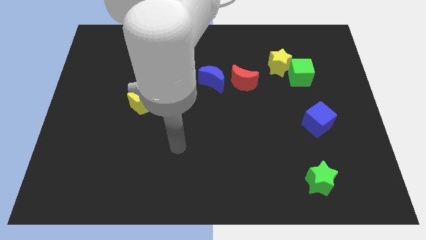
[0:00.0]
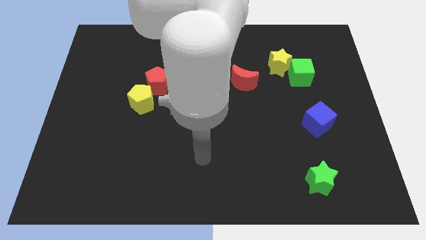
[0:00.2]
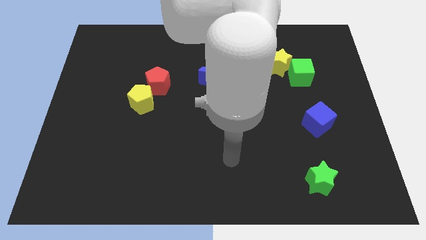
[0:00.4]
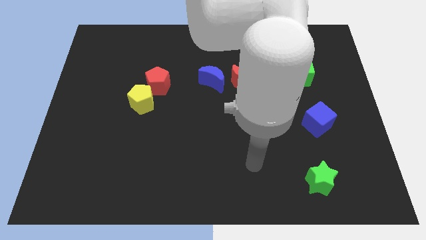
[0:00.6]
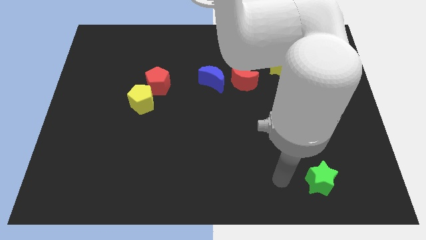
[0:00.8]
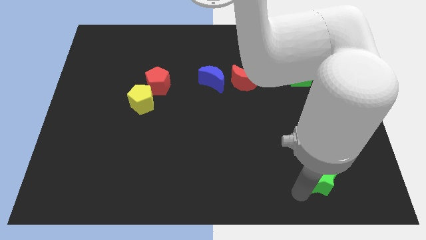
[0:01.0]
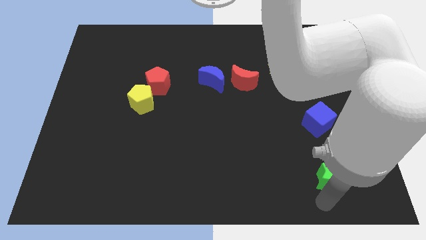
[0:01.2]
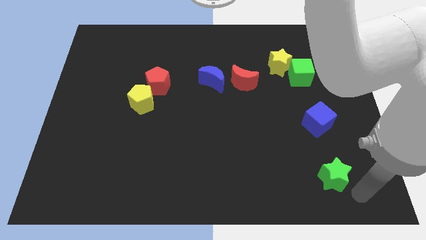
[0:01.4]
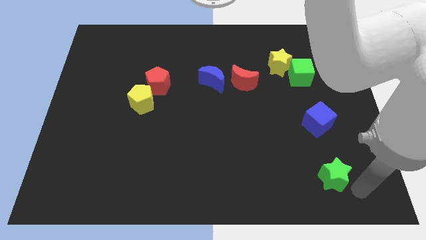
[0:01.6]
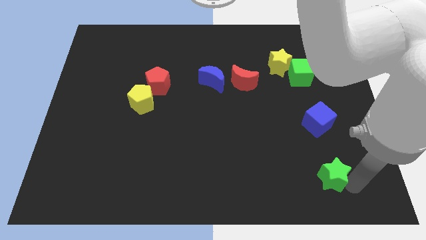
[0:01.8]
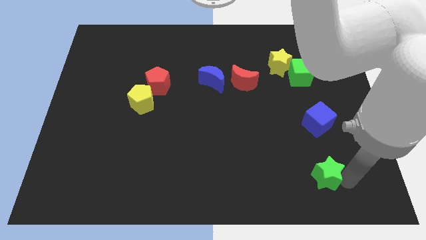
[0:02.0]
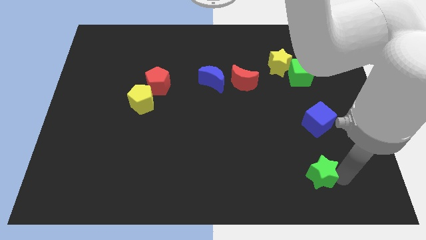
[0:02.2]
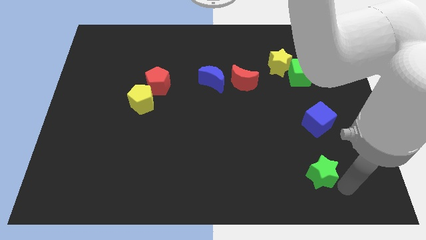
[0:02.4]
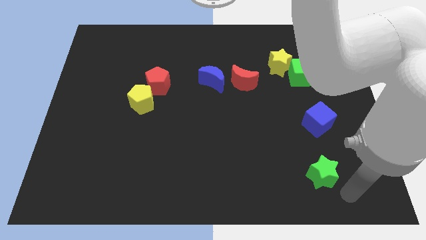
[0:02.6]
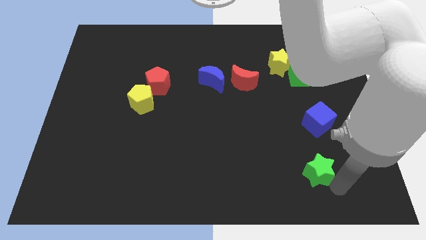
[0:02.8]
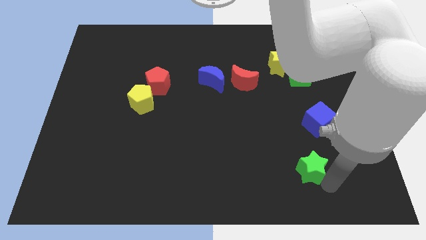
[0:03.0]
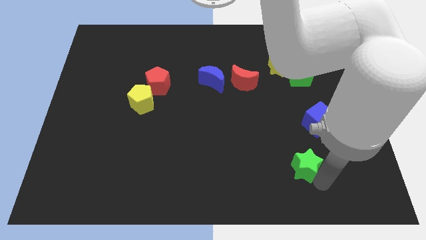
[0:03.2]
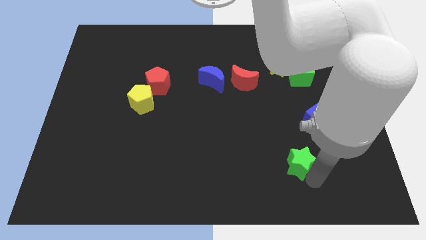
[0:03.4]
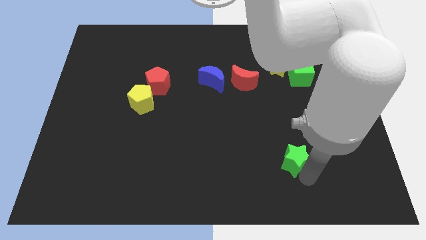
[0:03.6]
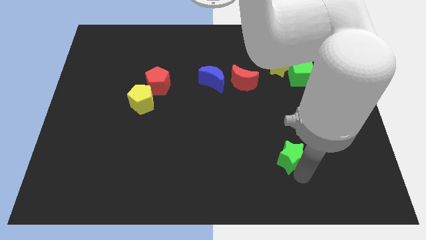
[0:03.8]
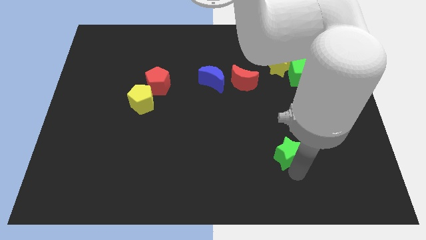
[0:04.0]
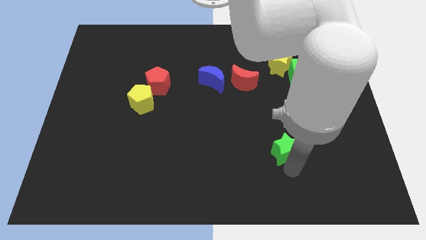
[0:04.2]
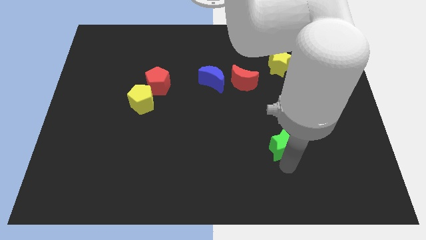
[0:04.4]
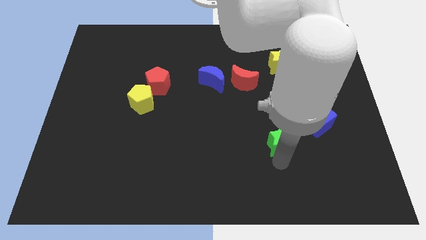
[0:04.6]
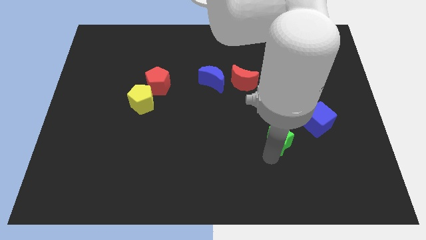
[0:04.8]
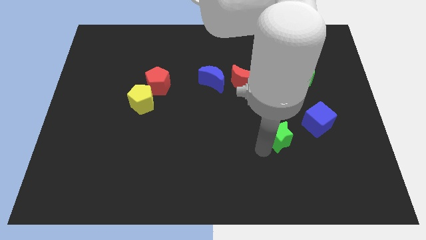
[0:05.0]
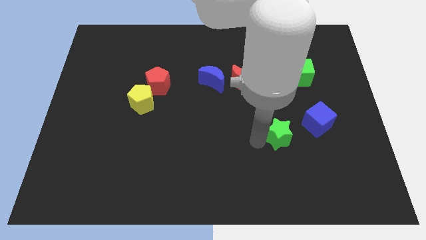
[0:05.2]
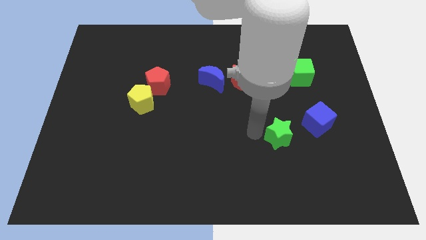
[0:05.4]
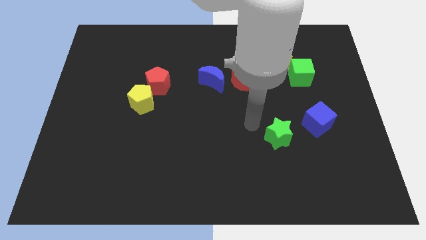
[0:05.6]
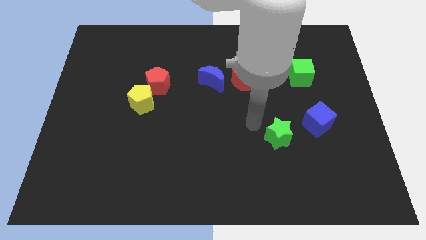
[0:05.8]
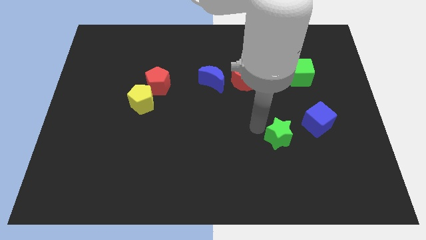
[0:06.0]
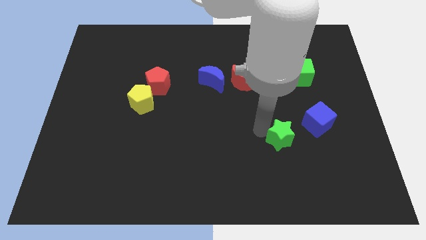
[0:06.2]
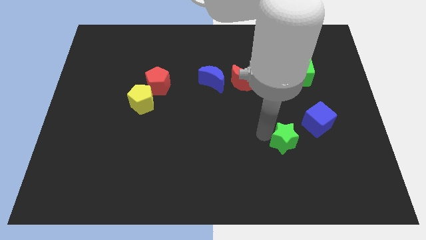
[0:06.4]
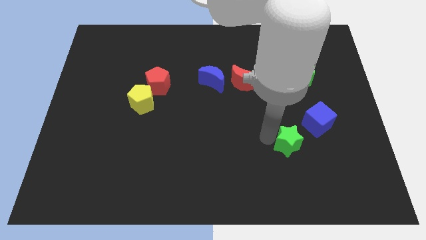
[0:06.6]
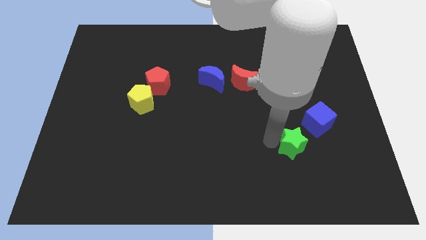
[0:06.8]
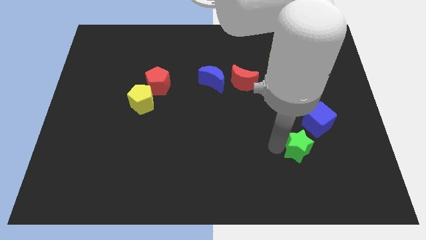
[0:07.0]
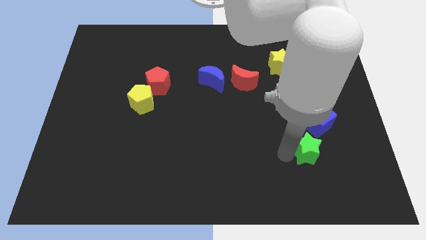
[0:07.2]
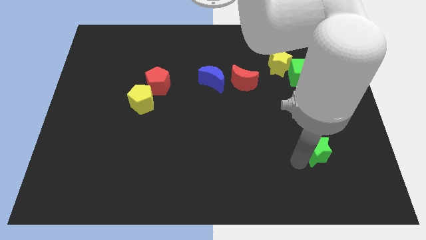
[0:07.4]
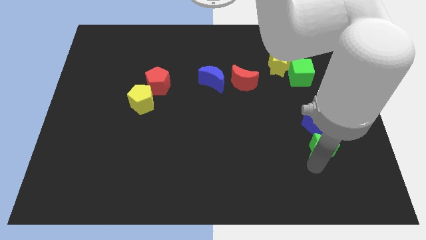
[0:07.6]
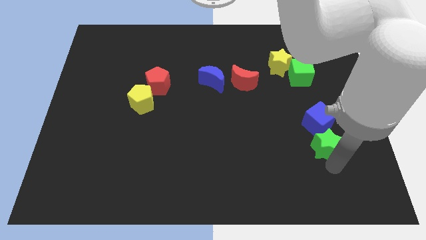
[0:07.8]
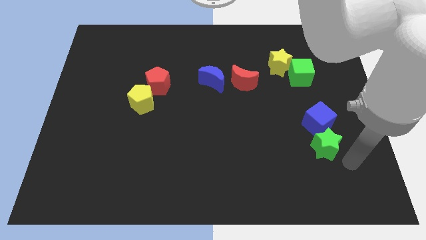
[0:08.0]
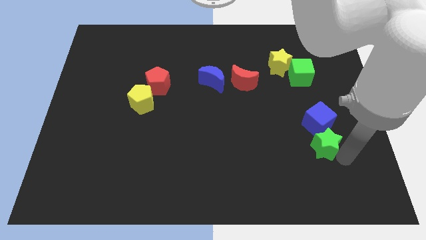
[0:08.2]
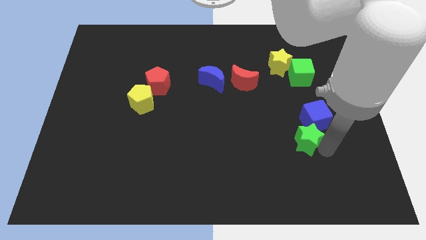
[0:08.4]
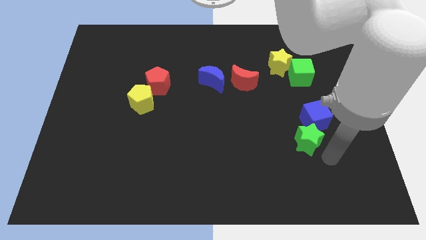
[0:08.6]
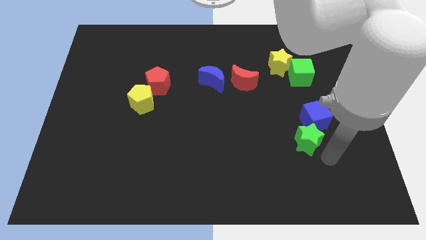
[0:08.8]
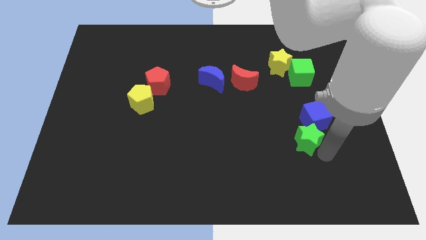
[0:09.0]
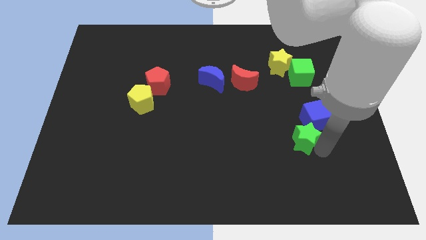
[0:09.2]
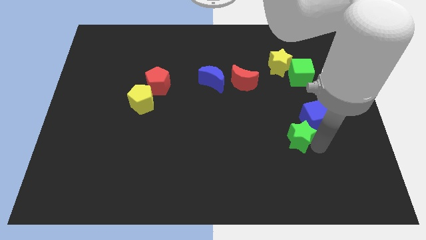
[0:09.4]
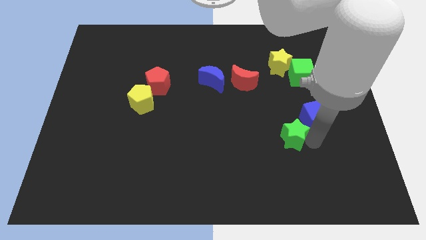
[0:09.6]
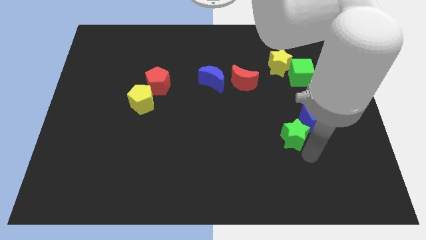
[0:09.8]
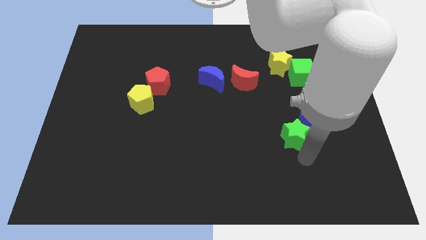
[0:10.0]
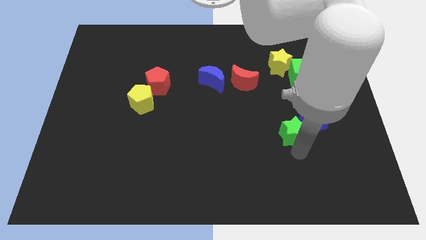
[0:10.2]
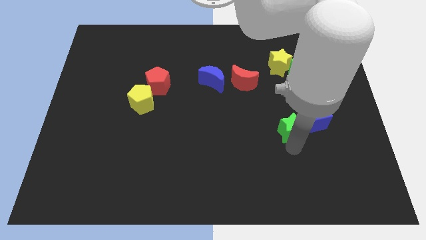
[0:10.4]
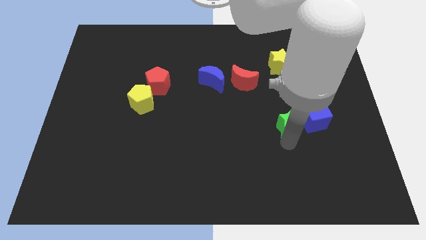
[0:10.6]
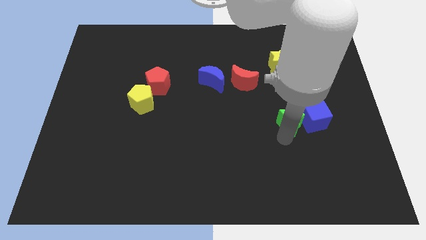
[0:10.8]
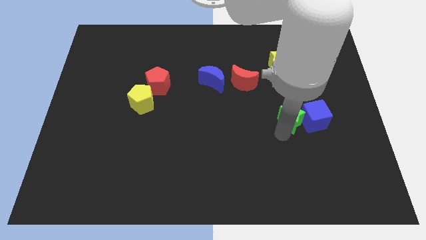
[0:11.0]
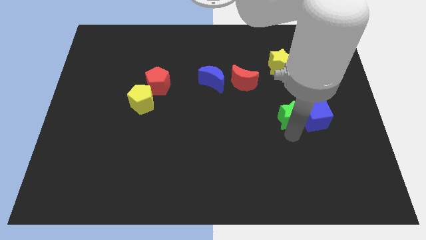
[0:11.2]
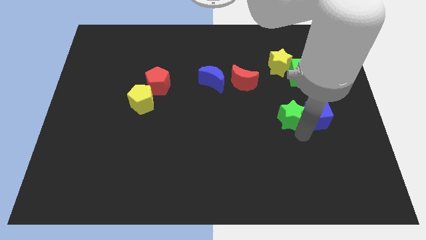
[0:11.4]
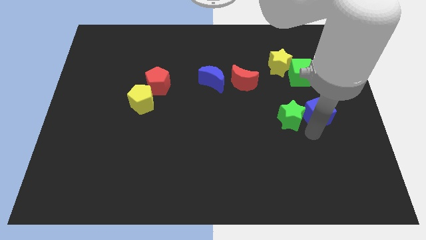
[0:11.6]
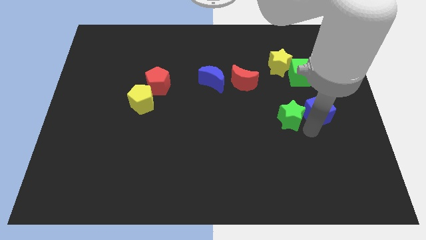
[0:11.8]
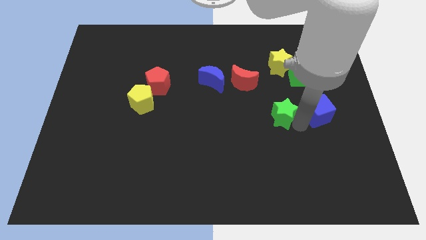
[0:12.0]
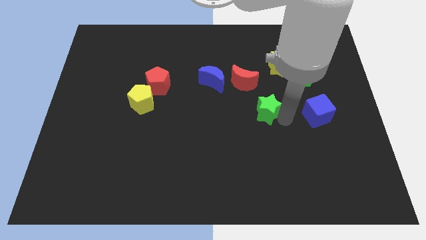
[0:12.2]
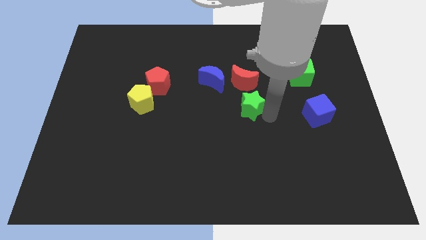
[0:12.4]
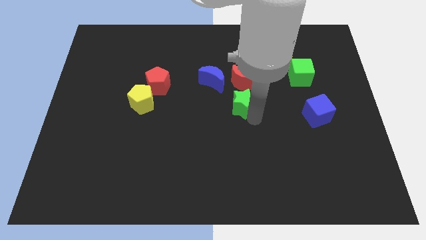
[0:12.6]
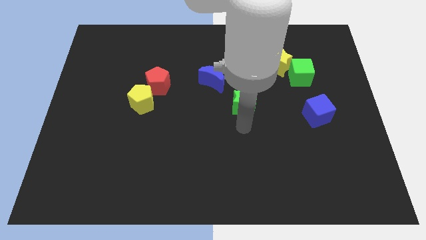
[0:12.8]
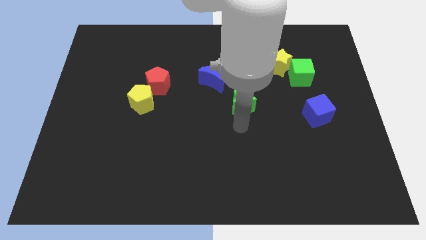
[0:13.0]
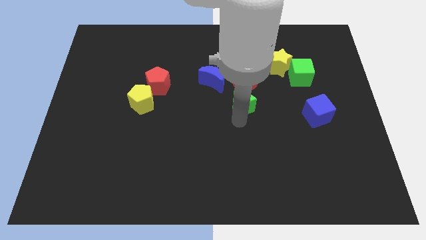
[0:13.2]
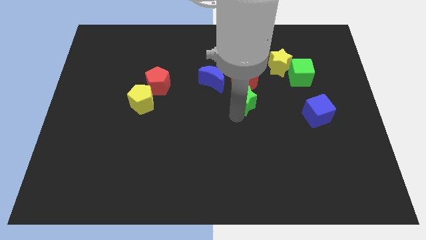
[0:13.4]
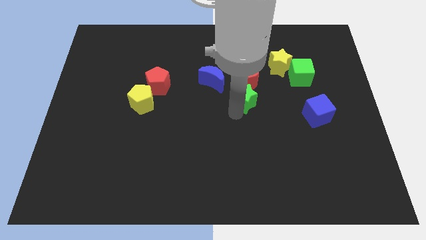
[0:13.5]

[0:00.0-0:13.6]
put the green star next to the red moon

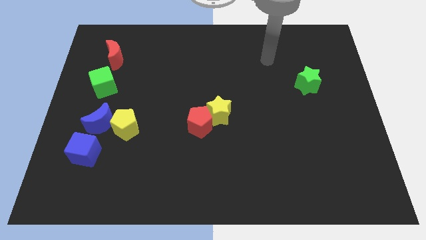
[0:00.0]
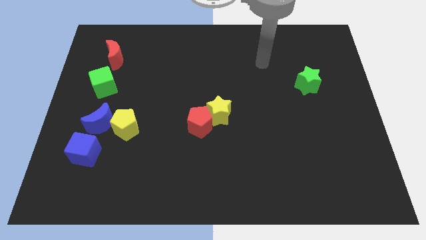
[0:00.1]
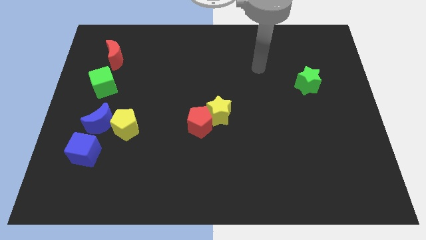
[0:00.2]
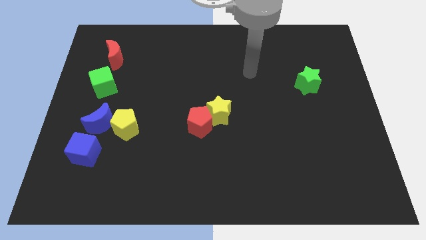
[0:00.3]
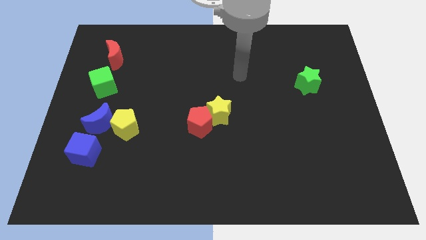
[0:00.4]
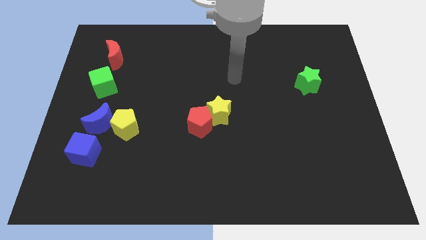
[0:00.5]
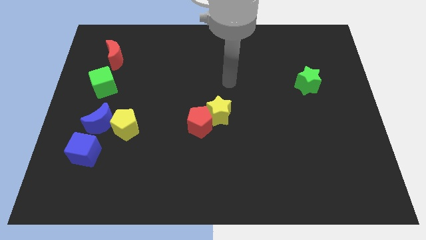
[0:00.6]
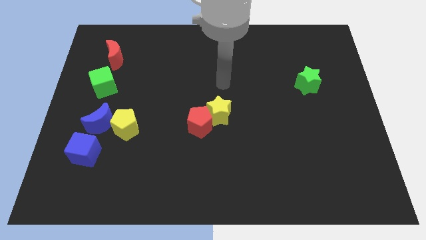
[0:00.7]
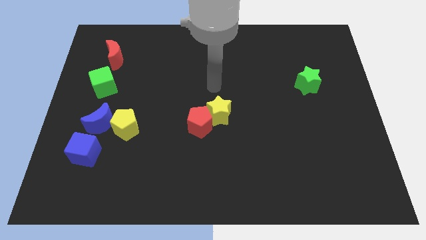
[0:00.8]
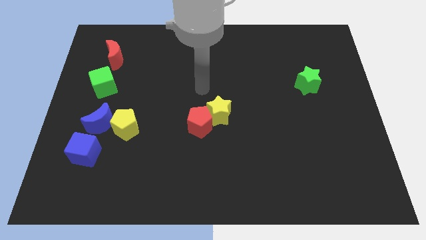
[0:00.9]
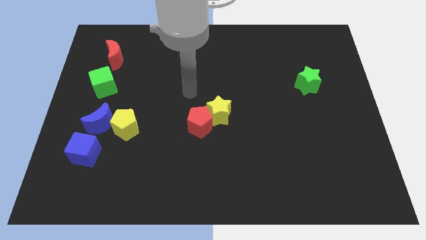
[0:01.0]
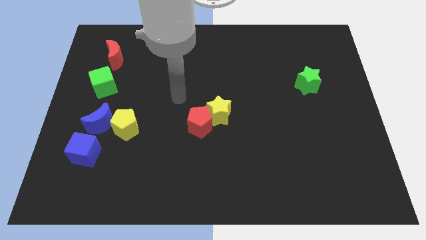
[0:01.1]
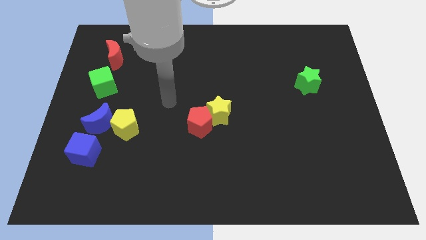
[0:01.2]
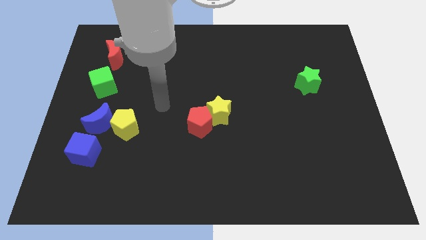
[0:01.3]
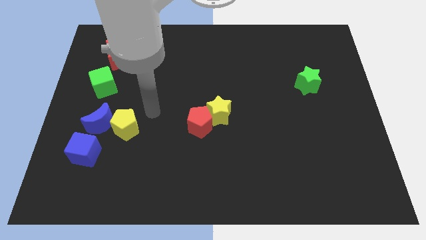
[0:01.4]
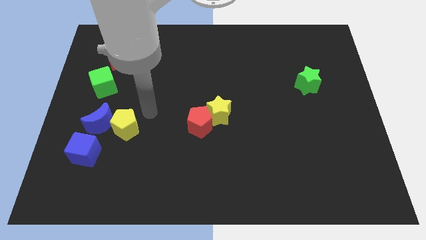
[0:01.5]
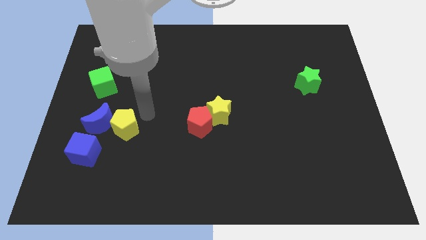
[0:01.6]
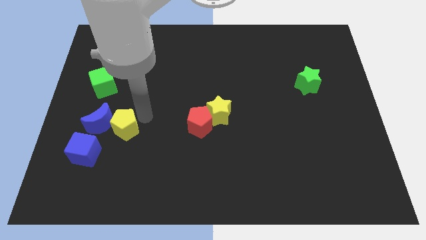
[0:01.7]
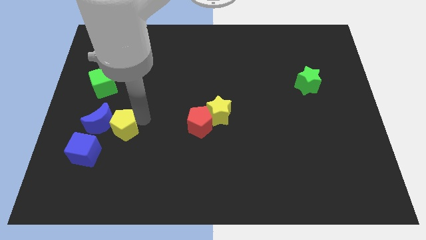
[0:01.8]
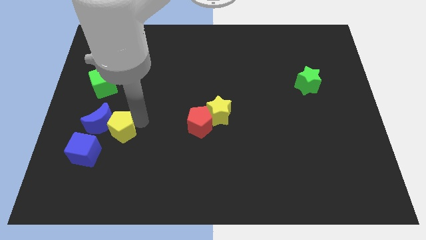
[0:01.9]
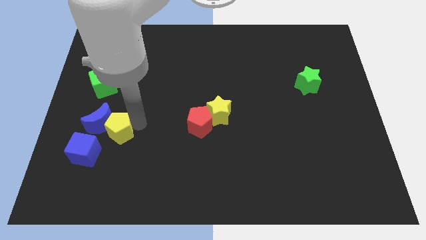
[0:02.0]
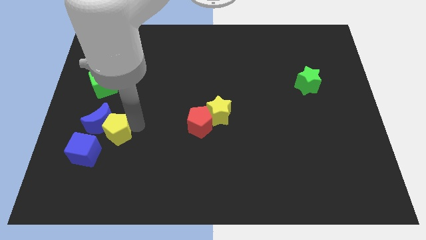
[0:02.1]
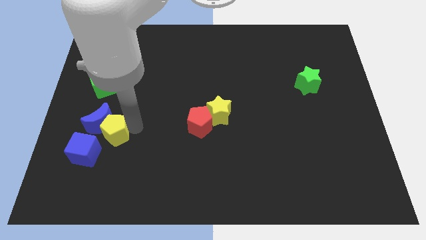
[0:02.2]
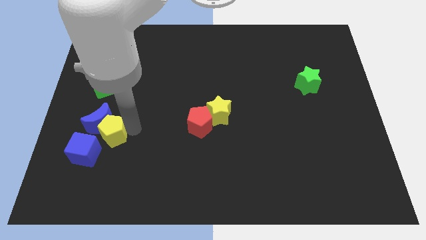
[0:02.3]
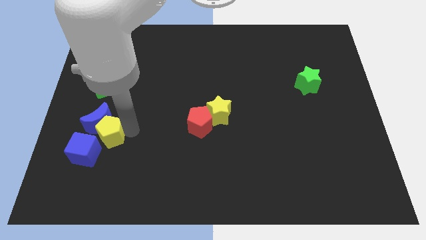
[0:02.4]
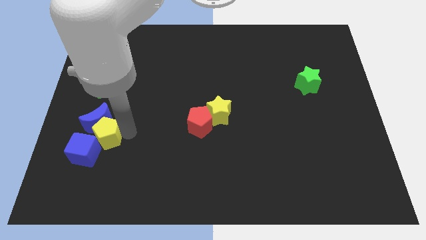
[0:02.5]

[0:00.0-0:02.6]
move the yellow pentagon towards the blue cube
